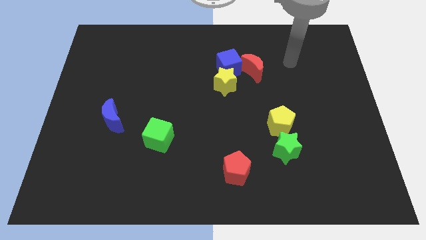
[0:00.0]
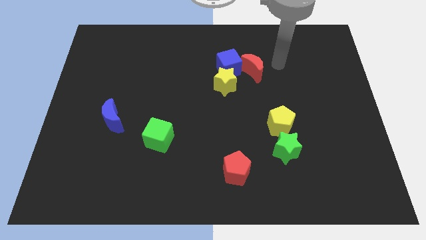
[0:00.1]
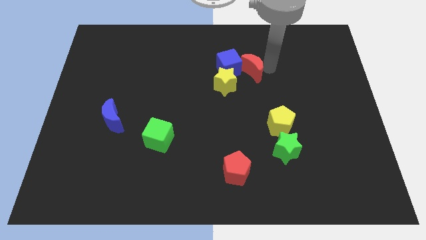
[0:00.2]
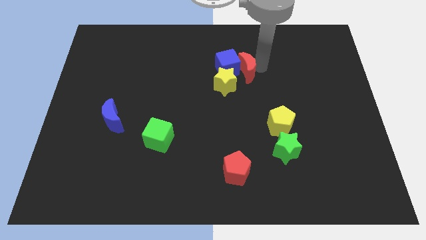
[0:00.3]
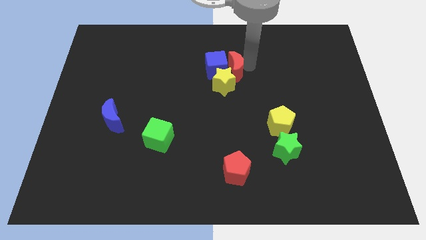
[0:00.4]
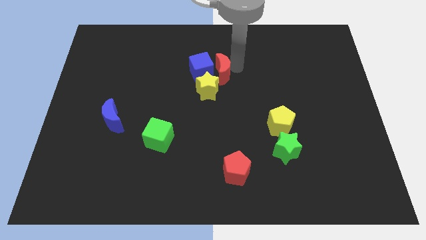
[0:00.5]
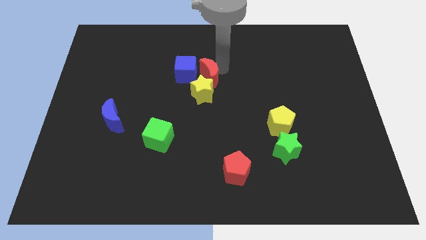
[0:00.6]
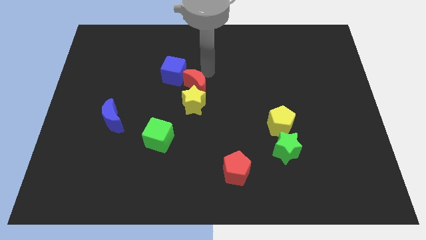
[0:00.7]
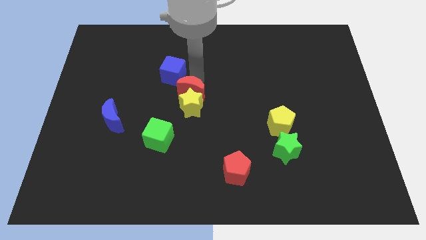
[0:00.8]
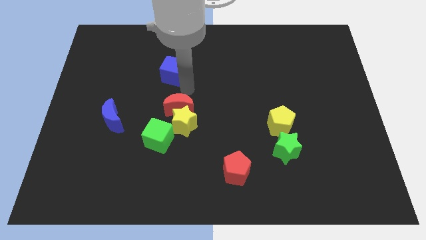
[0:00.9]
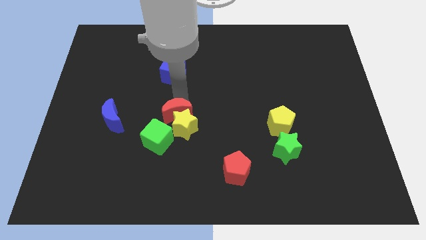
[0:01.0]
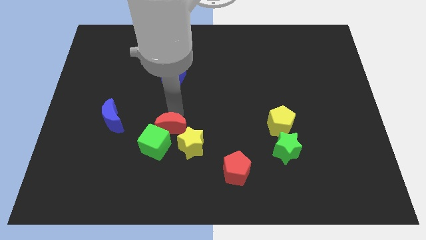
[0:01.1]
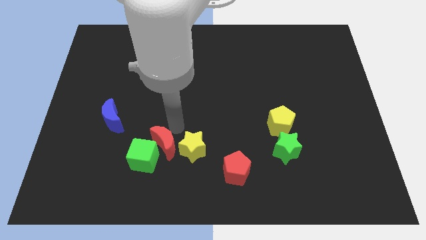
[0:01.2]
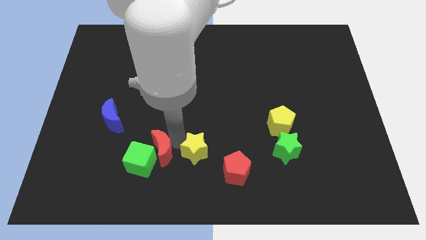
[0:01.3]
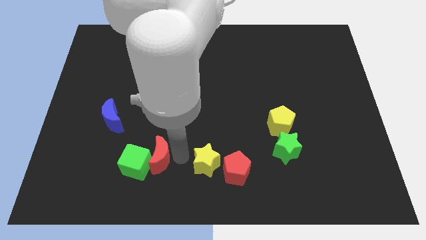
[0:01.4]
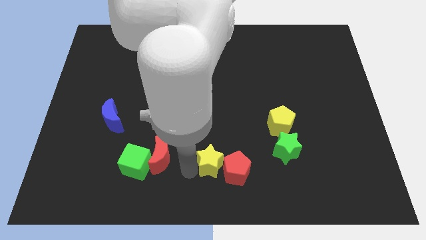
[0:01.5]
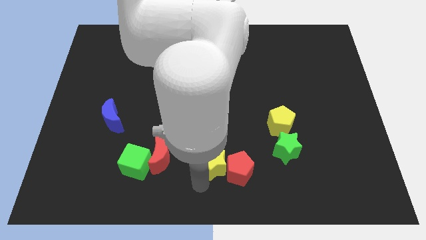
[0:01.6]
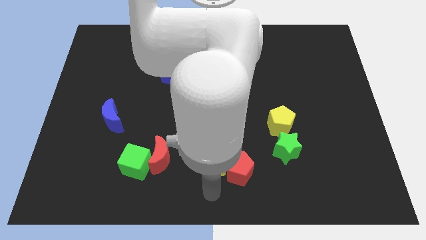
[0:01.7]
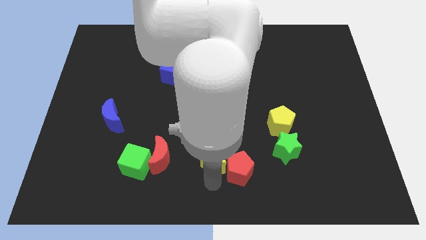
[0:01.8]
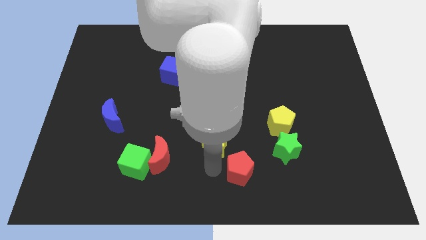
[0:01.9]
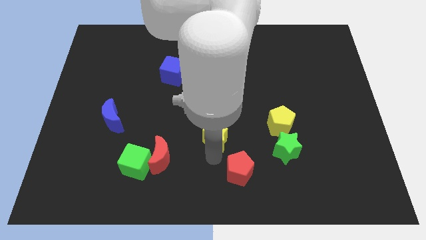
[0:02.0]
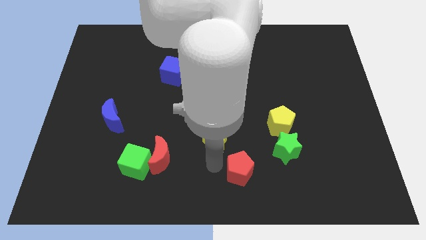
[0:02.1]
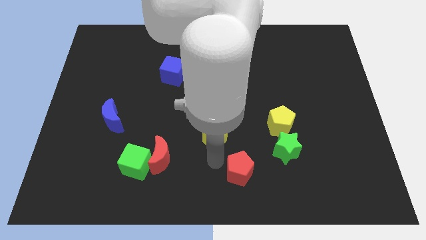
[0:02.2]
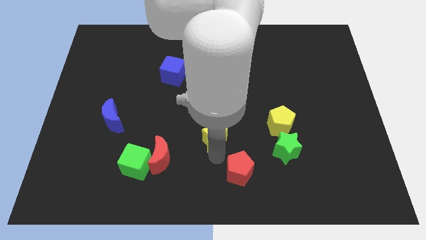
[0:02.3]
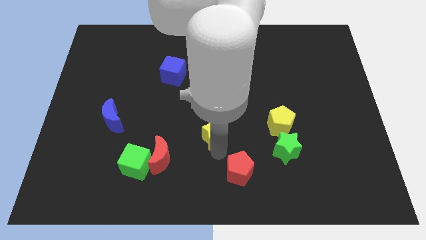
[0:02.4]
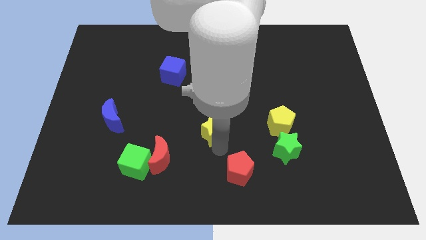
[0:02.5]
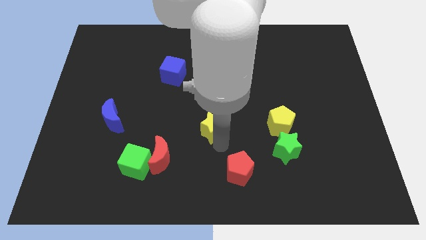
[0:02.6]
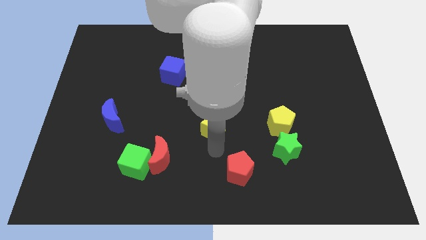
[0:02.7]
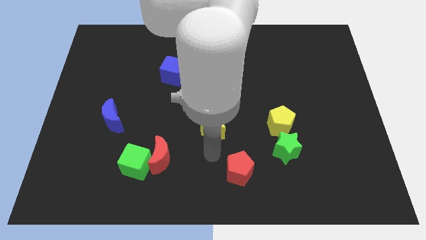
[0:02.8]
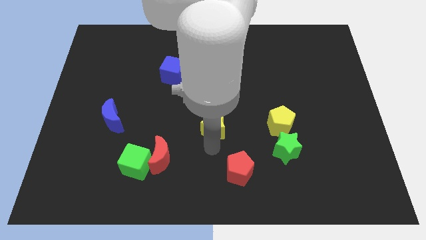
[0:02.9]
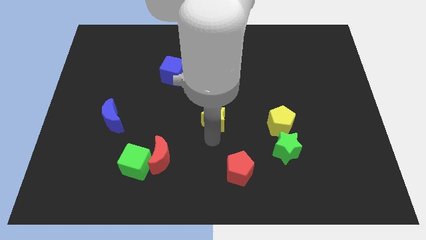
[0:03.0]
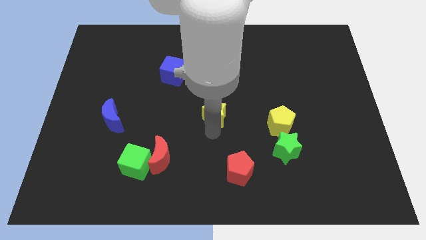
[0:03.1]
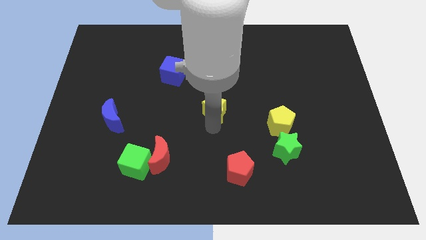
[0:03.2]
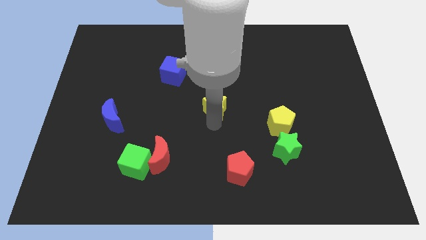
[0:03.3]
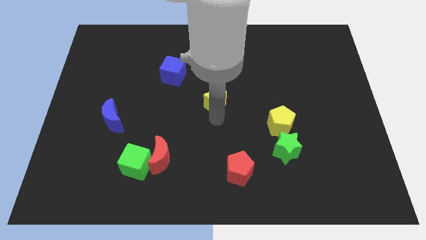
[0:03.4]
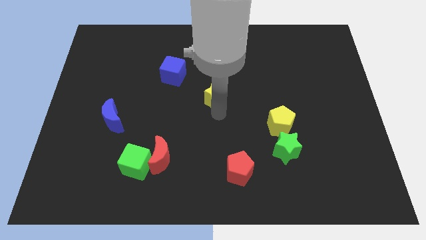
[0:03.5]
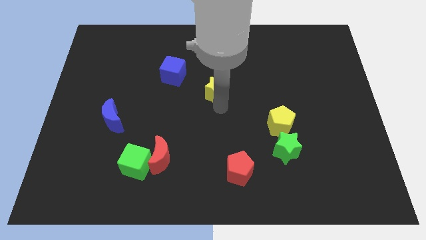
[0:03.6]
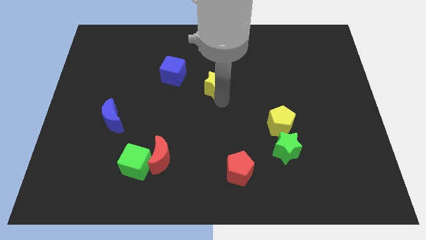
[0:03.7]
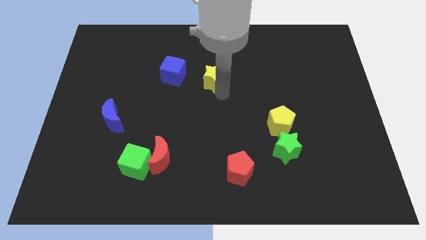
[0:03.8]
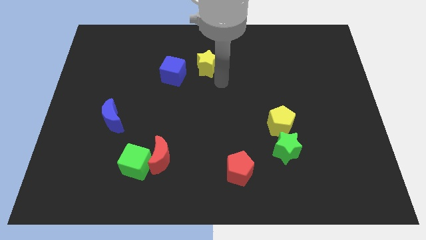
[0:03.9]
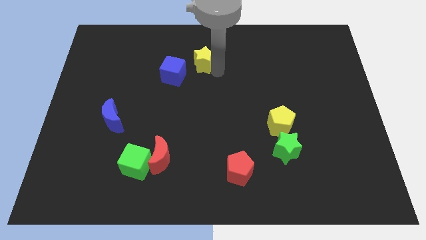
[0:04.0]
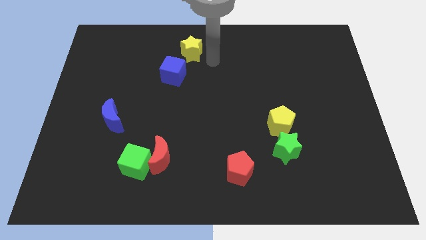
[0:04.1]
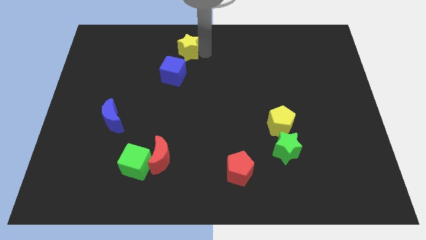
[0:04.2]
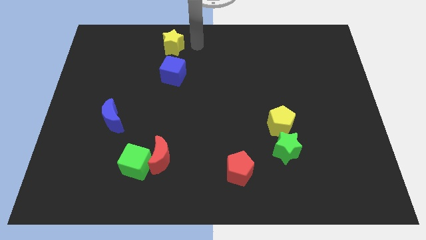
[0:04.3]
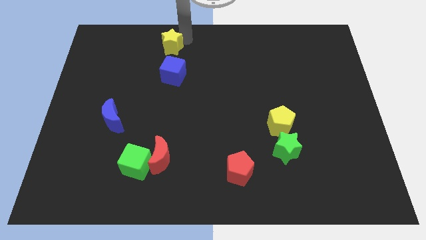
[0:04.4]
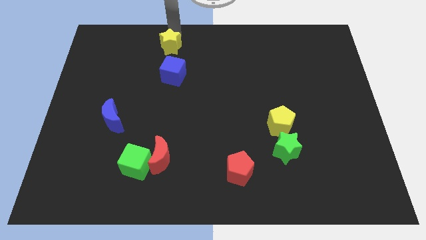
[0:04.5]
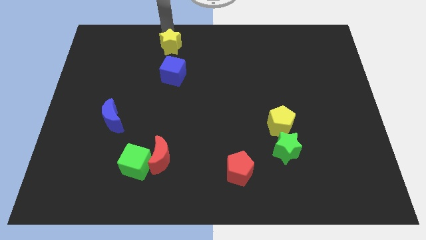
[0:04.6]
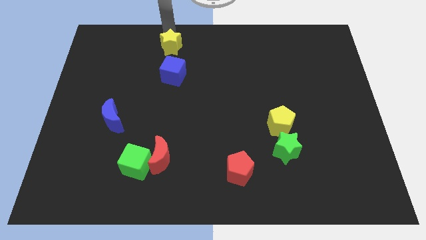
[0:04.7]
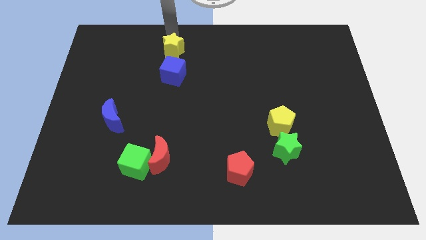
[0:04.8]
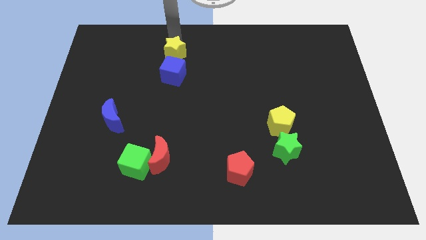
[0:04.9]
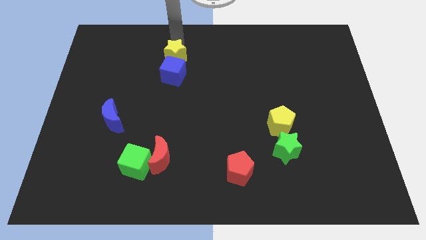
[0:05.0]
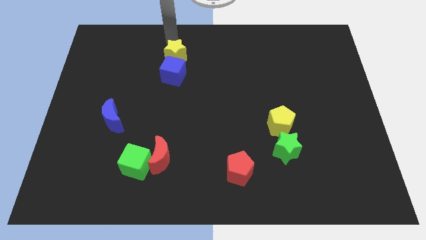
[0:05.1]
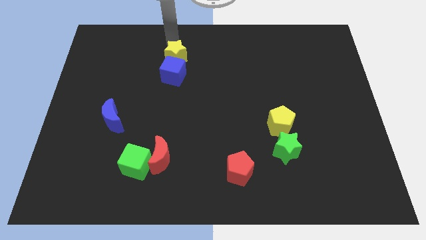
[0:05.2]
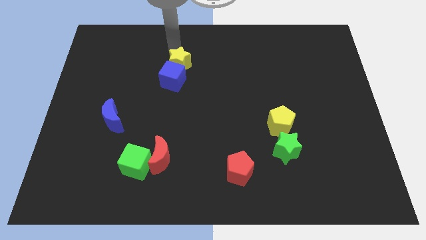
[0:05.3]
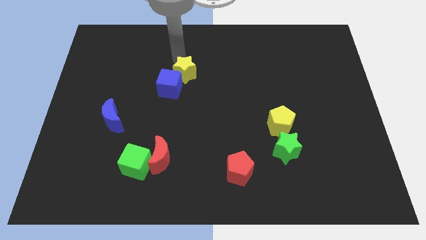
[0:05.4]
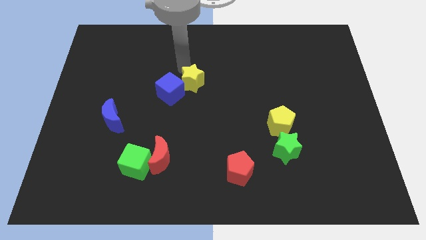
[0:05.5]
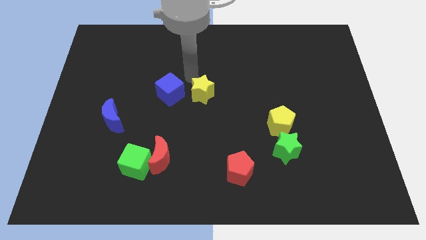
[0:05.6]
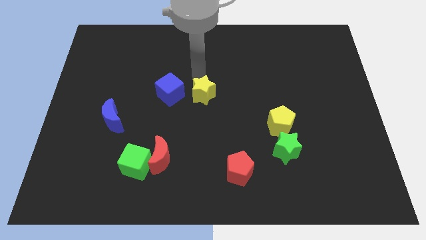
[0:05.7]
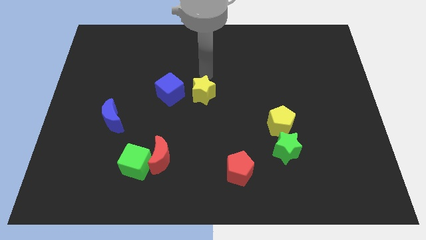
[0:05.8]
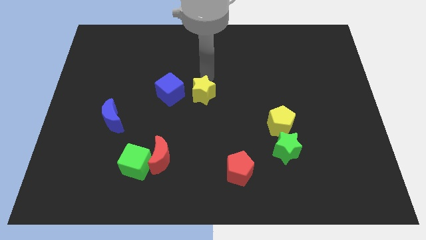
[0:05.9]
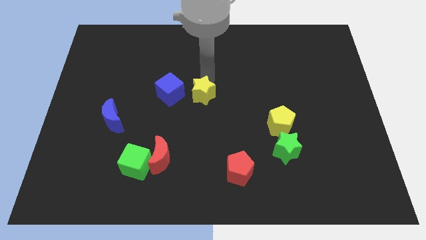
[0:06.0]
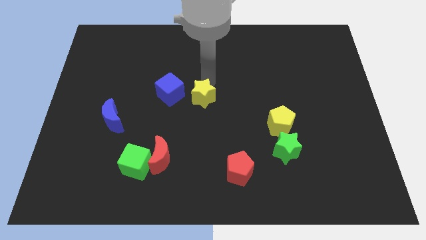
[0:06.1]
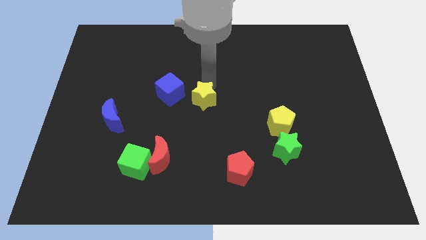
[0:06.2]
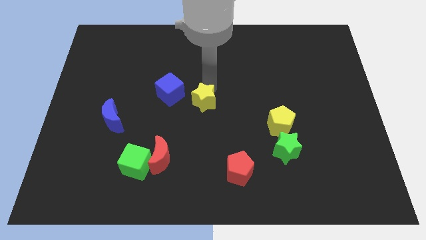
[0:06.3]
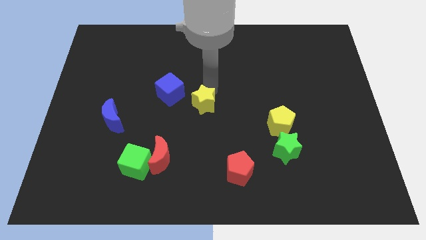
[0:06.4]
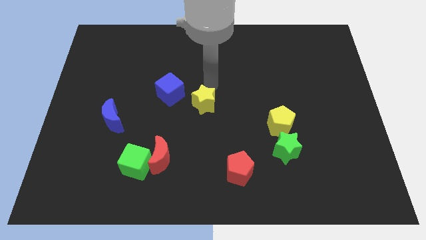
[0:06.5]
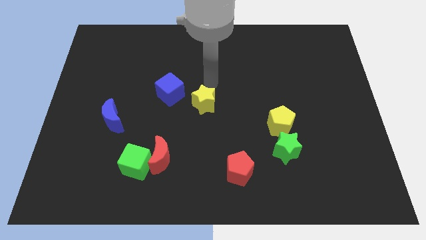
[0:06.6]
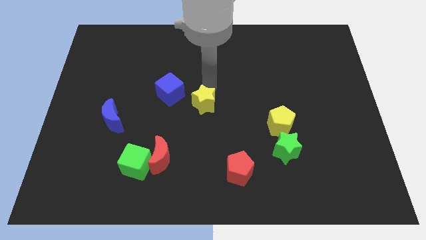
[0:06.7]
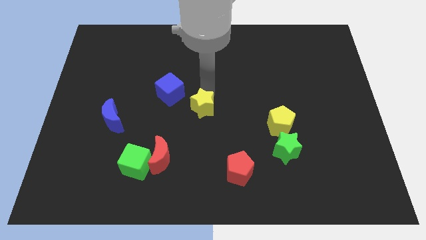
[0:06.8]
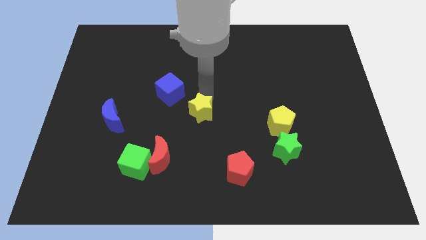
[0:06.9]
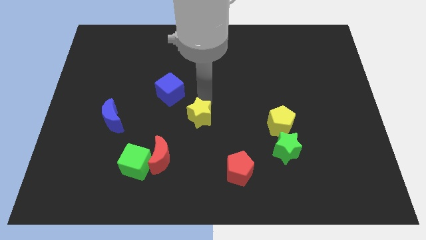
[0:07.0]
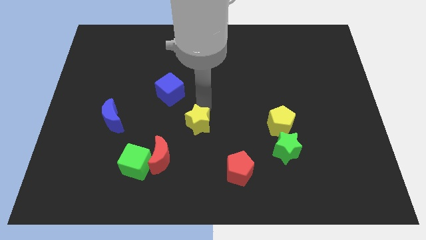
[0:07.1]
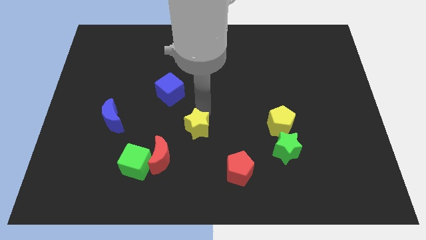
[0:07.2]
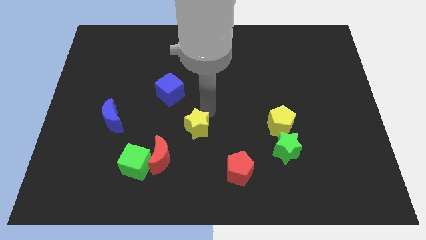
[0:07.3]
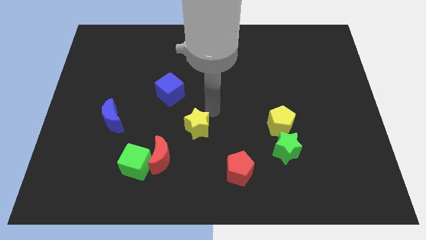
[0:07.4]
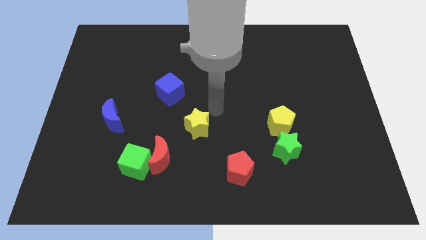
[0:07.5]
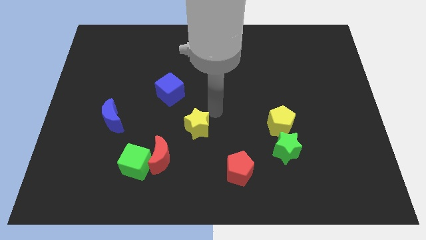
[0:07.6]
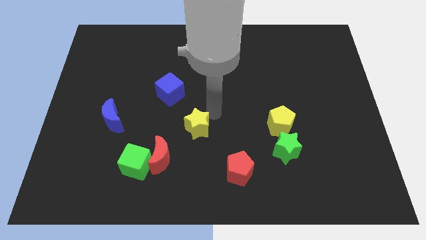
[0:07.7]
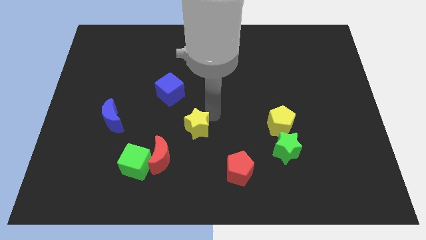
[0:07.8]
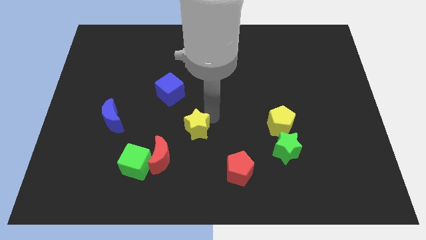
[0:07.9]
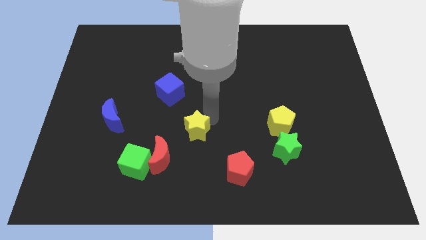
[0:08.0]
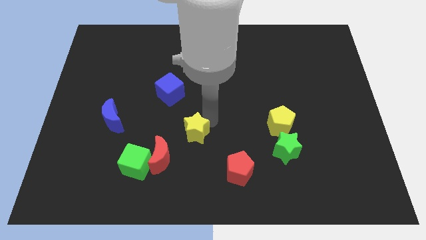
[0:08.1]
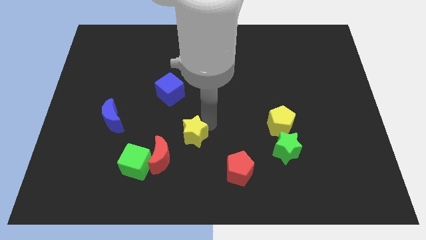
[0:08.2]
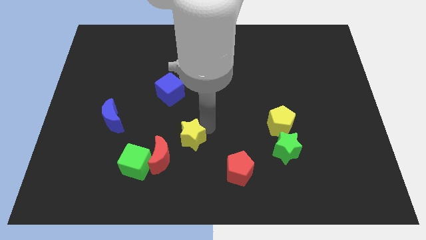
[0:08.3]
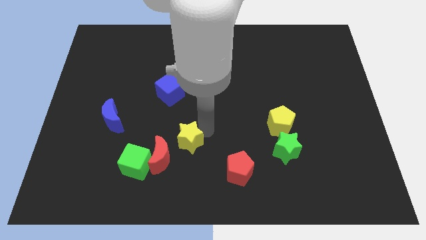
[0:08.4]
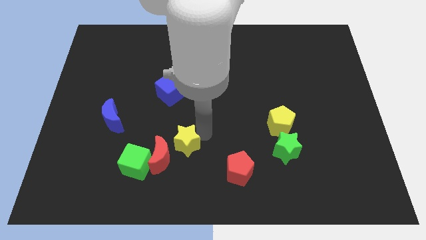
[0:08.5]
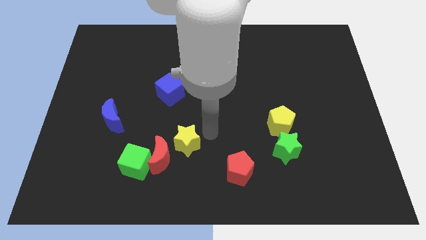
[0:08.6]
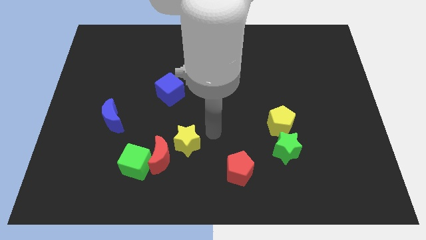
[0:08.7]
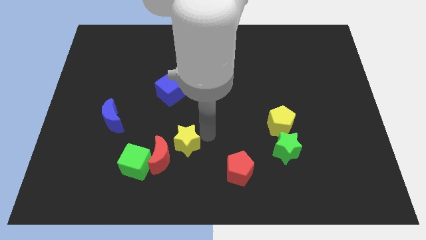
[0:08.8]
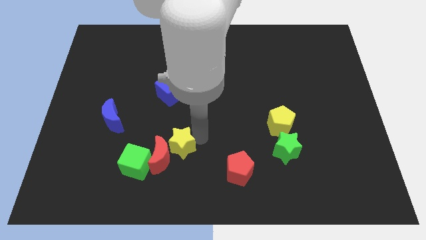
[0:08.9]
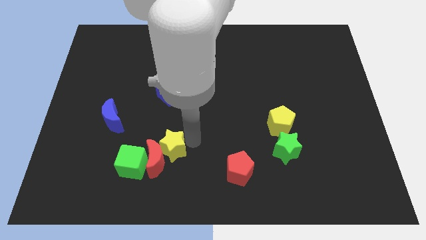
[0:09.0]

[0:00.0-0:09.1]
move the yellow star down and then left
